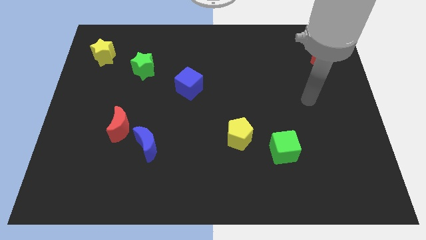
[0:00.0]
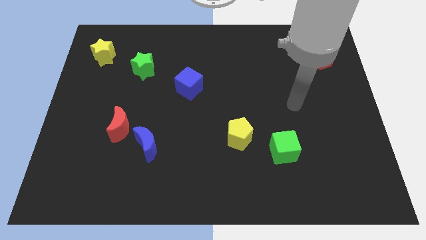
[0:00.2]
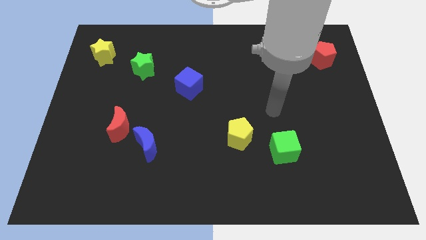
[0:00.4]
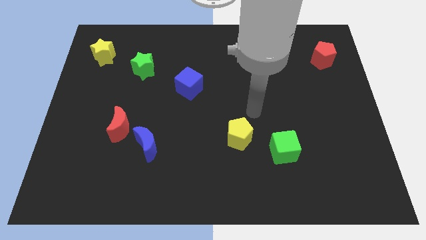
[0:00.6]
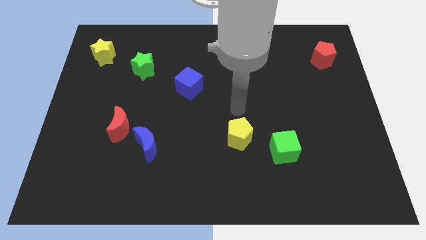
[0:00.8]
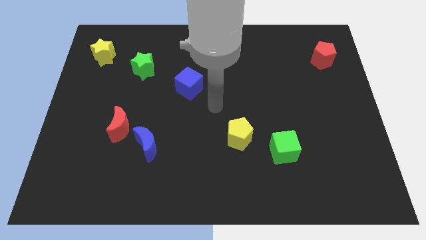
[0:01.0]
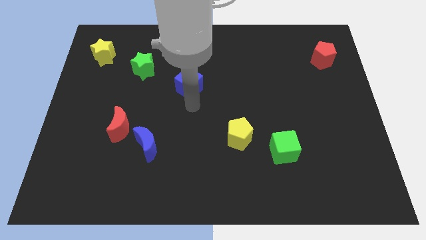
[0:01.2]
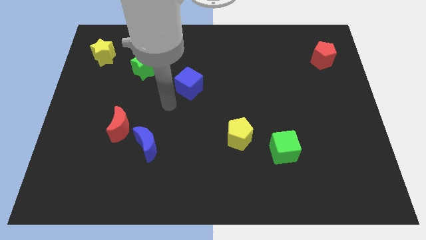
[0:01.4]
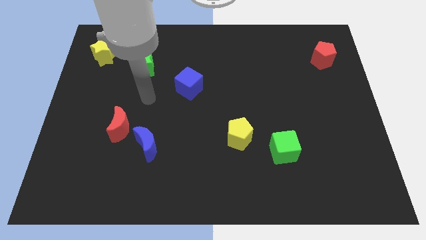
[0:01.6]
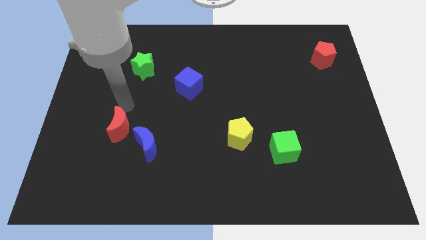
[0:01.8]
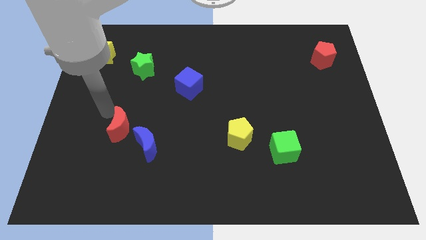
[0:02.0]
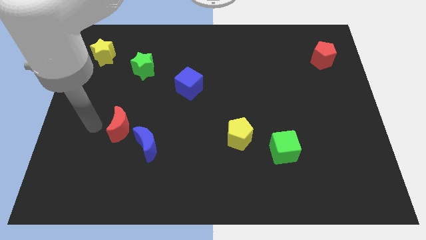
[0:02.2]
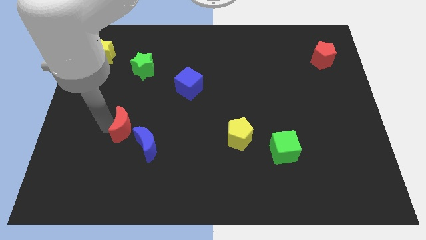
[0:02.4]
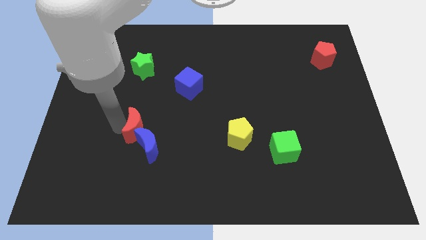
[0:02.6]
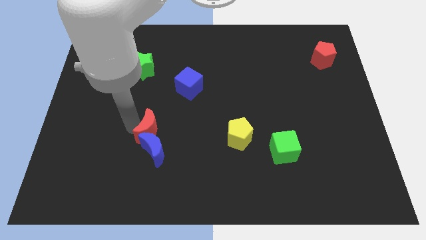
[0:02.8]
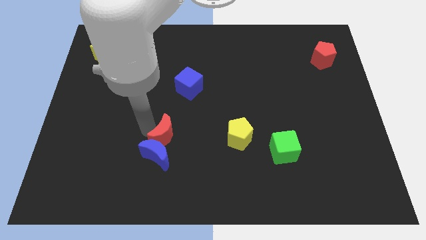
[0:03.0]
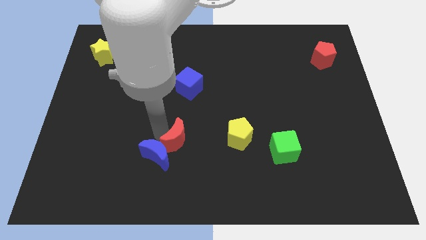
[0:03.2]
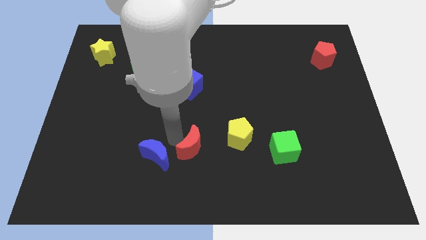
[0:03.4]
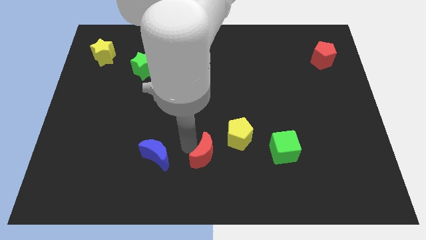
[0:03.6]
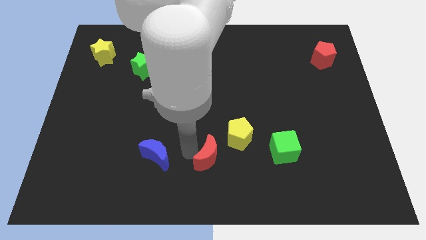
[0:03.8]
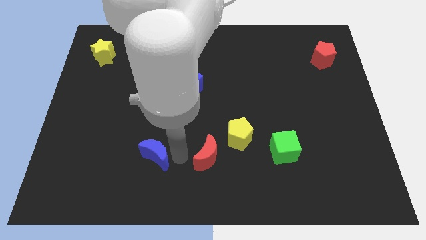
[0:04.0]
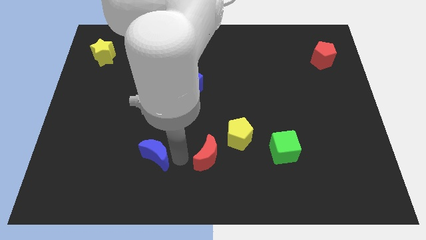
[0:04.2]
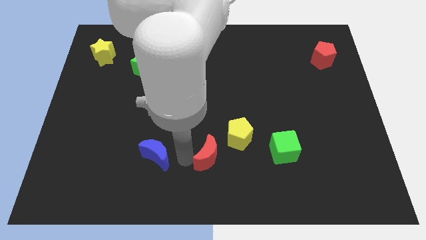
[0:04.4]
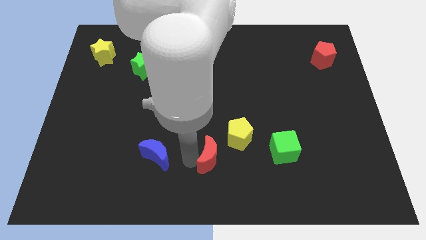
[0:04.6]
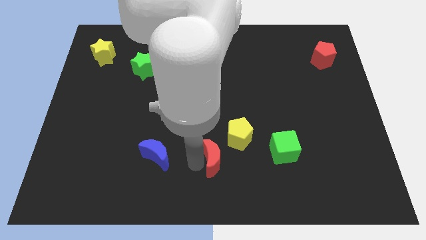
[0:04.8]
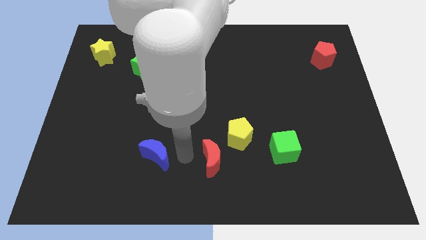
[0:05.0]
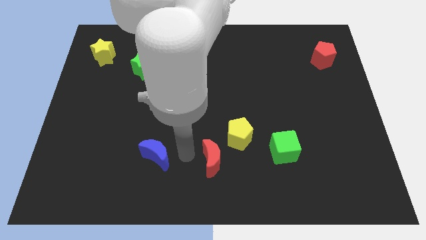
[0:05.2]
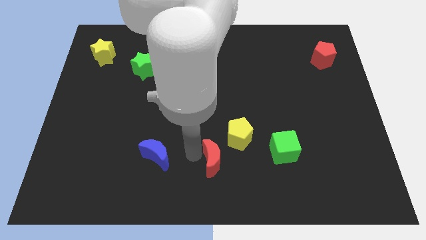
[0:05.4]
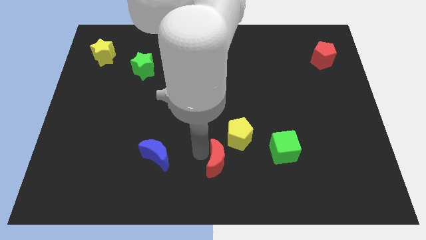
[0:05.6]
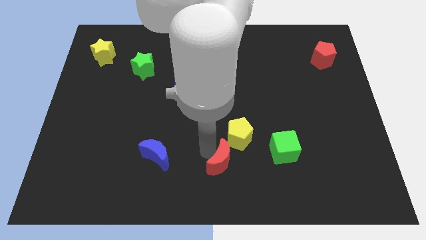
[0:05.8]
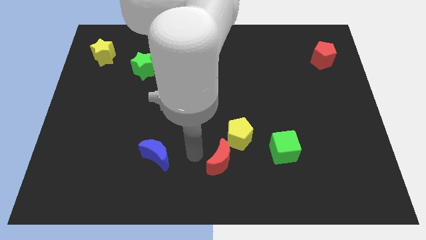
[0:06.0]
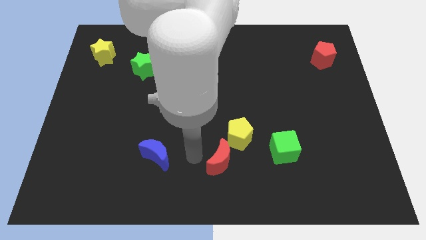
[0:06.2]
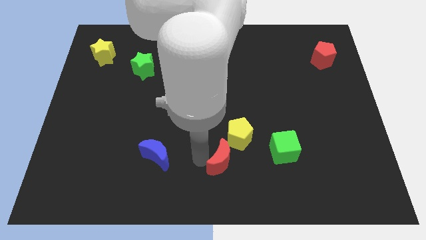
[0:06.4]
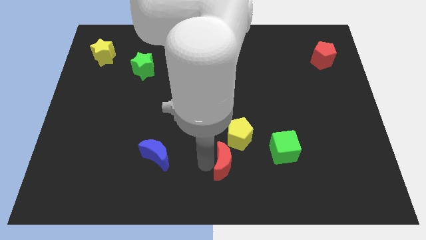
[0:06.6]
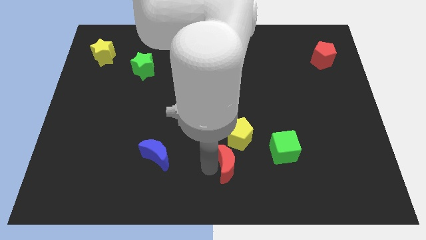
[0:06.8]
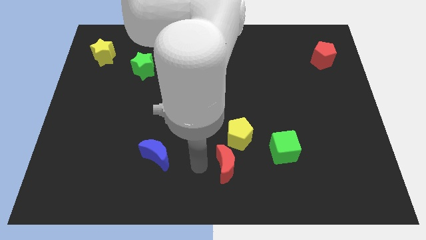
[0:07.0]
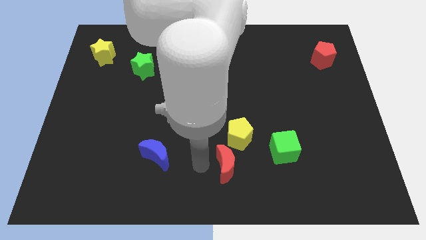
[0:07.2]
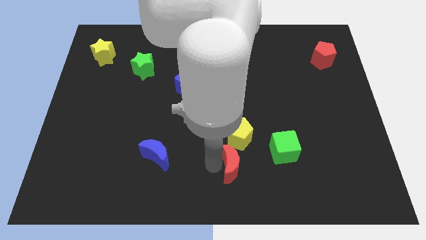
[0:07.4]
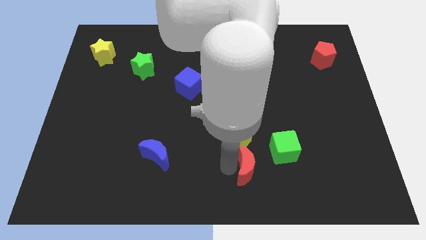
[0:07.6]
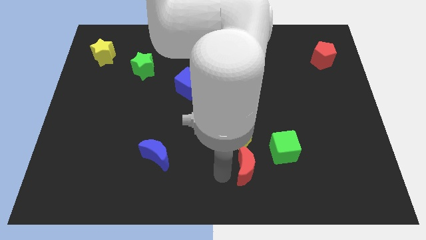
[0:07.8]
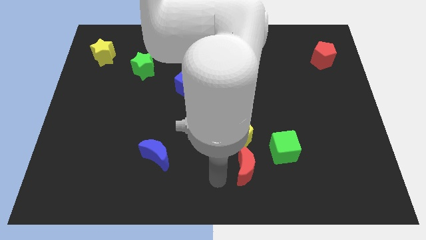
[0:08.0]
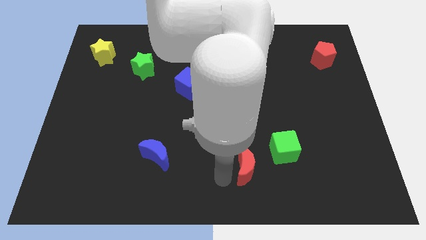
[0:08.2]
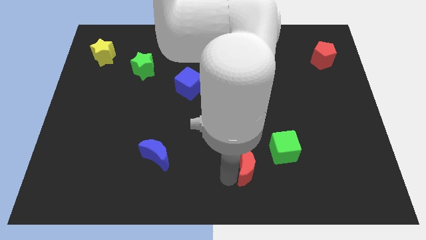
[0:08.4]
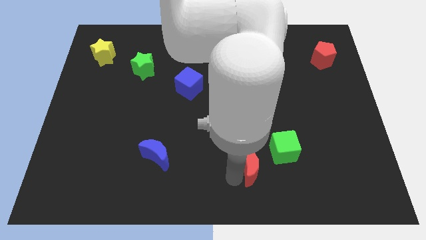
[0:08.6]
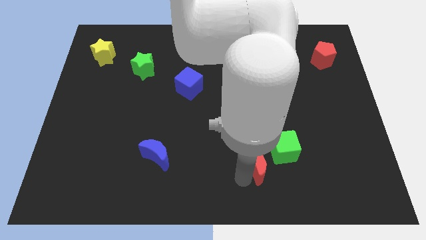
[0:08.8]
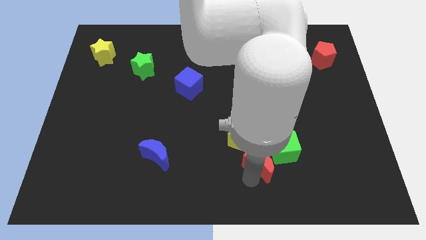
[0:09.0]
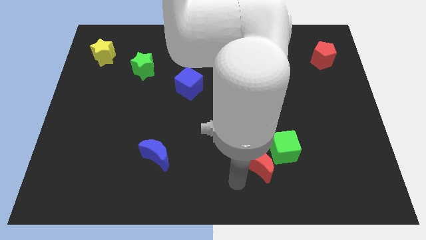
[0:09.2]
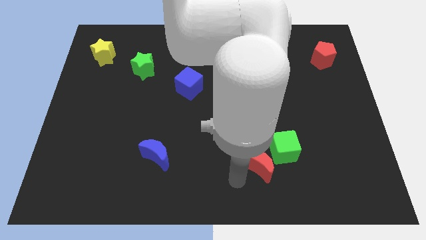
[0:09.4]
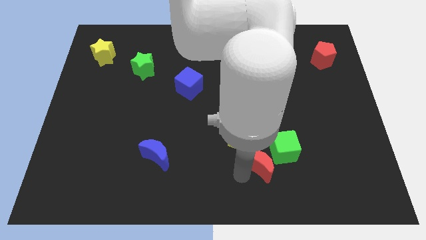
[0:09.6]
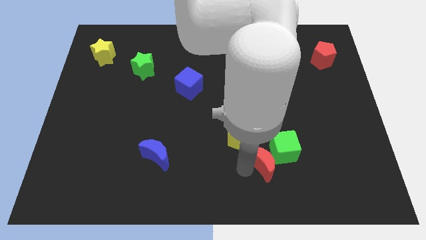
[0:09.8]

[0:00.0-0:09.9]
slide the red moon next to the green cube

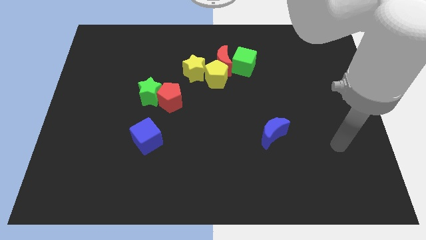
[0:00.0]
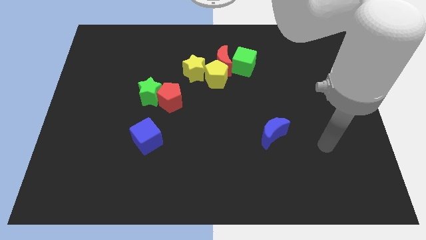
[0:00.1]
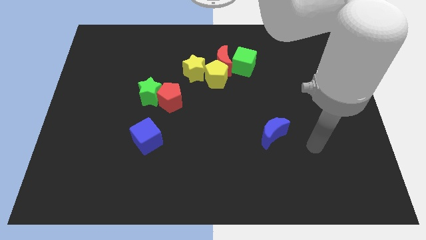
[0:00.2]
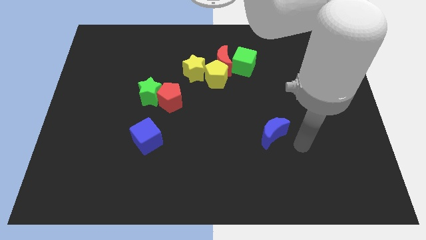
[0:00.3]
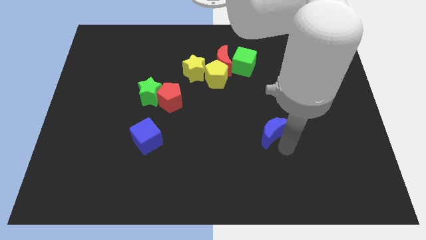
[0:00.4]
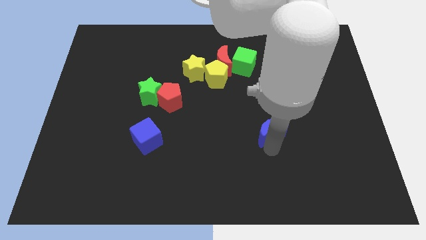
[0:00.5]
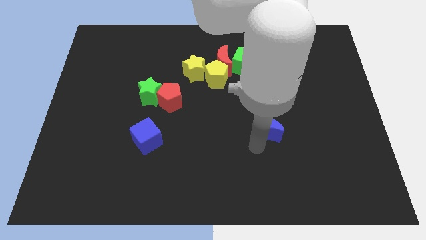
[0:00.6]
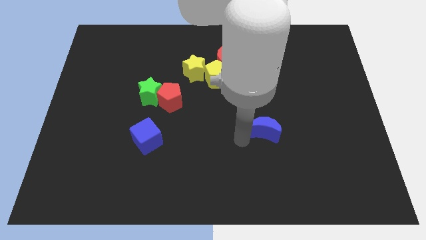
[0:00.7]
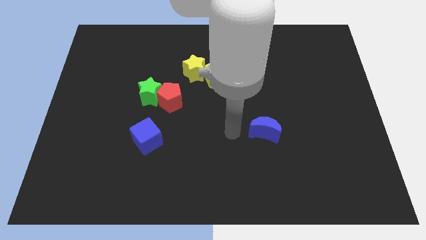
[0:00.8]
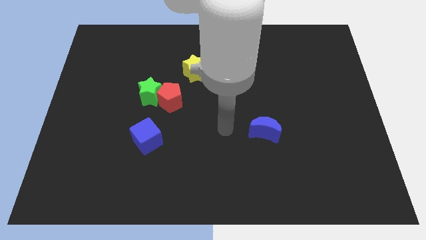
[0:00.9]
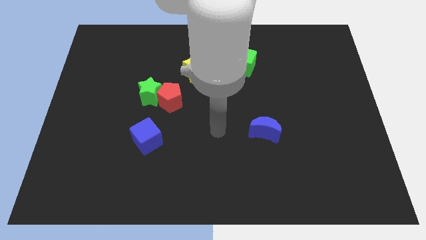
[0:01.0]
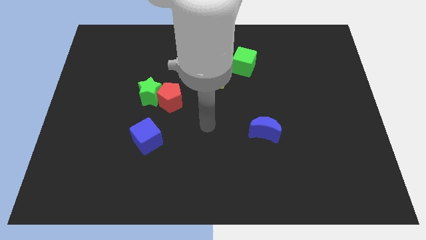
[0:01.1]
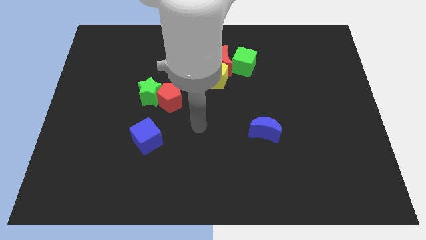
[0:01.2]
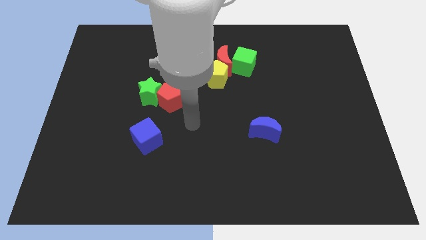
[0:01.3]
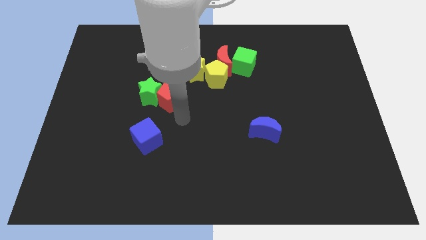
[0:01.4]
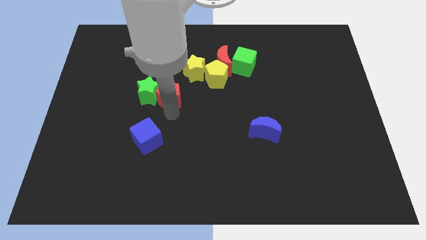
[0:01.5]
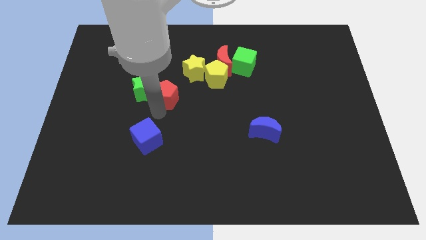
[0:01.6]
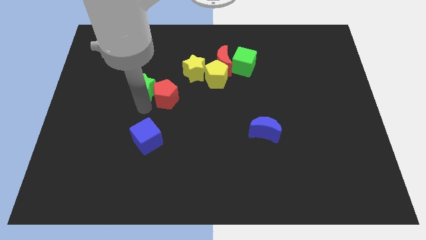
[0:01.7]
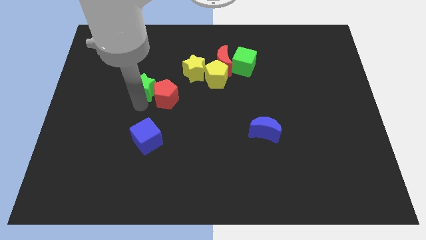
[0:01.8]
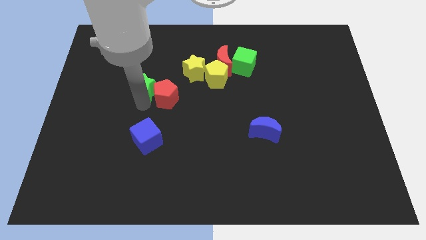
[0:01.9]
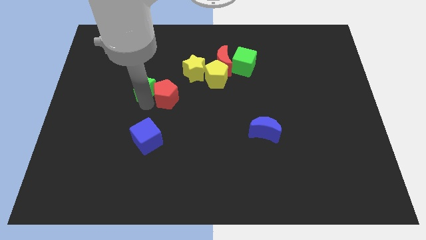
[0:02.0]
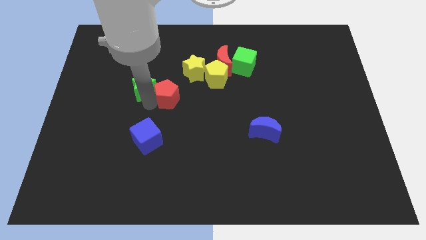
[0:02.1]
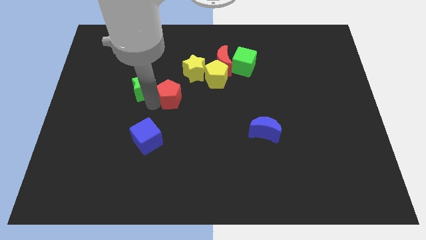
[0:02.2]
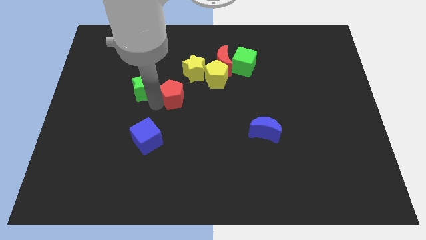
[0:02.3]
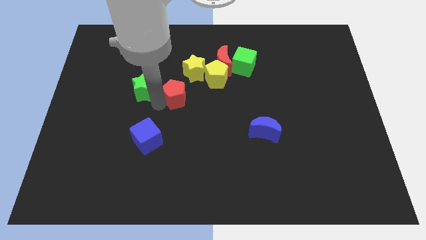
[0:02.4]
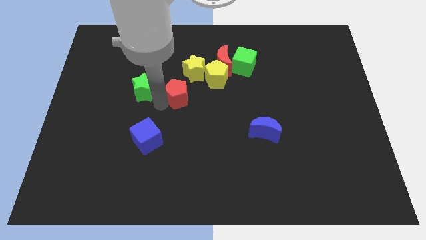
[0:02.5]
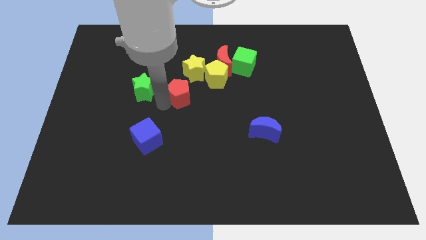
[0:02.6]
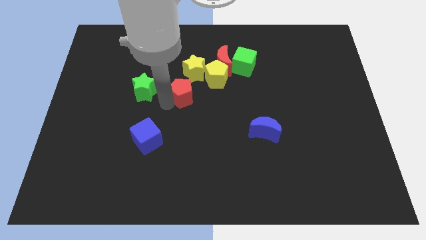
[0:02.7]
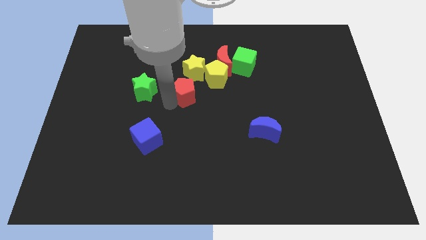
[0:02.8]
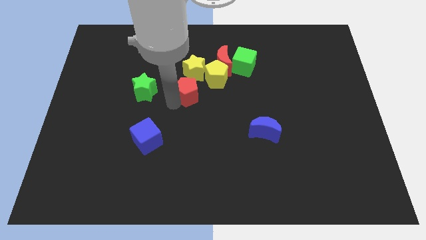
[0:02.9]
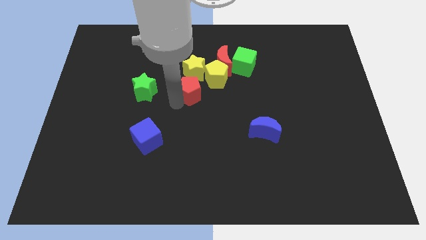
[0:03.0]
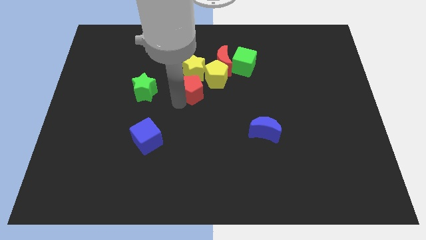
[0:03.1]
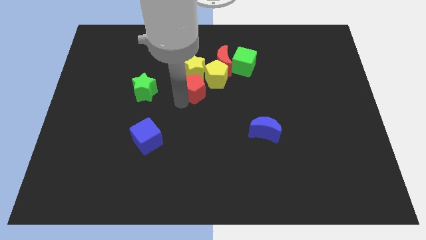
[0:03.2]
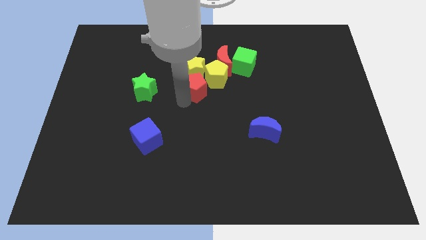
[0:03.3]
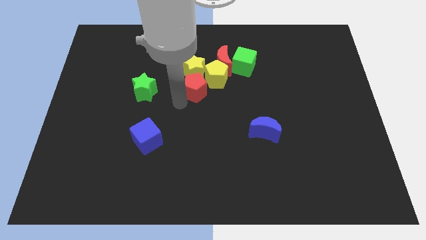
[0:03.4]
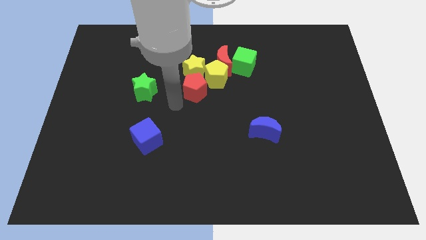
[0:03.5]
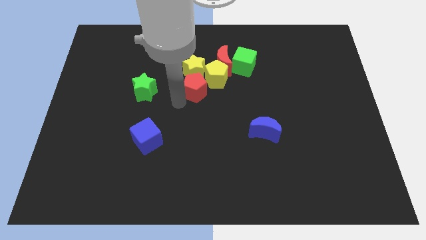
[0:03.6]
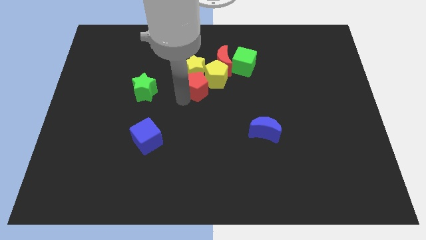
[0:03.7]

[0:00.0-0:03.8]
push the red pentagon next to the yellow pentagon
